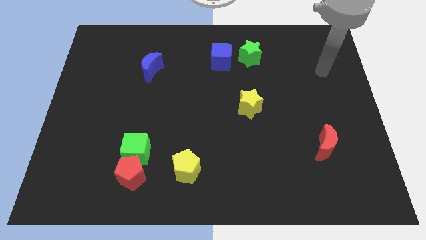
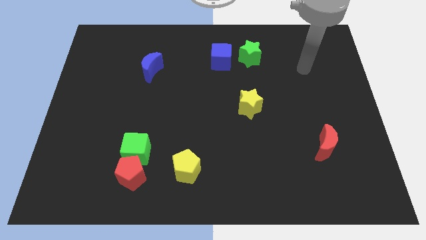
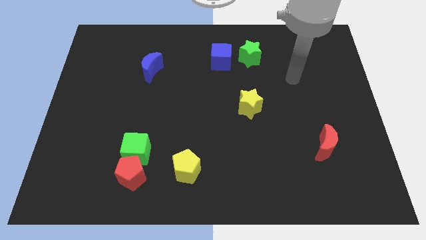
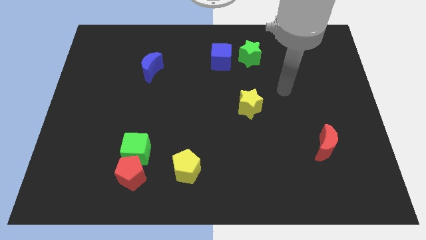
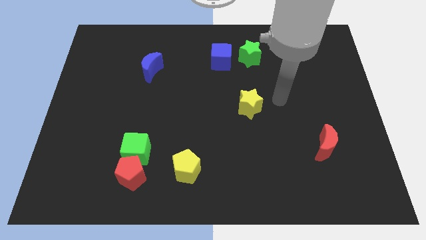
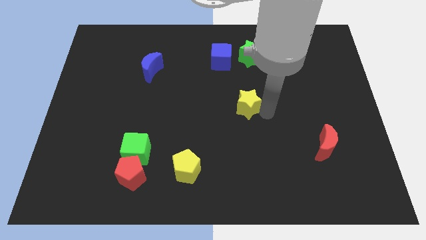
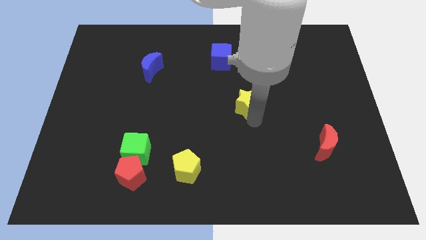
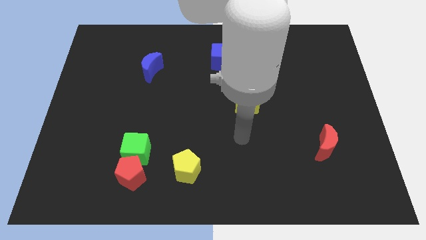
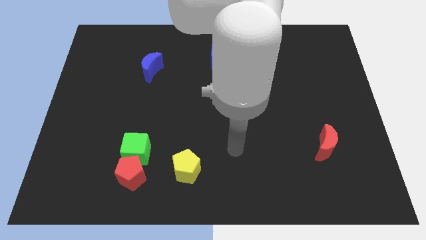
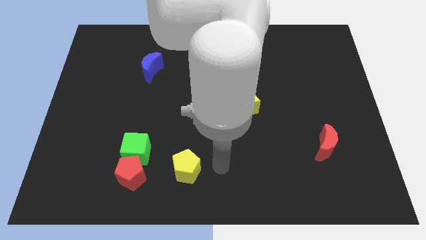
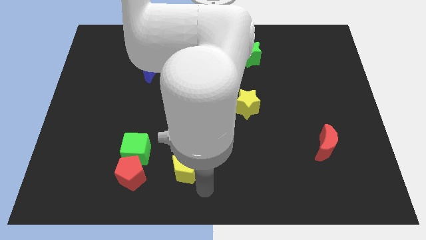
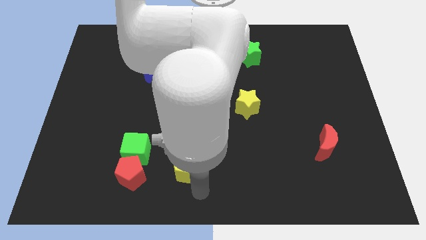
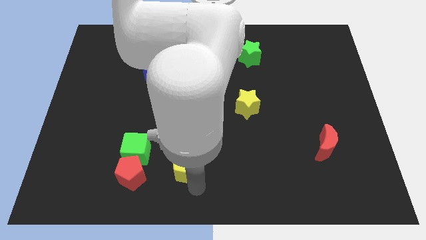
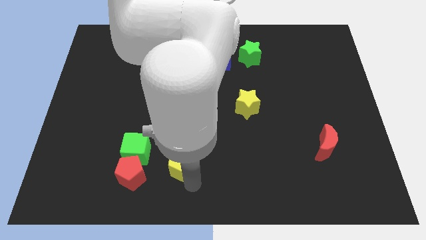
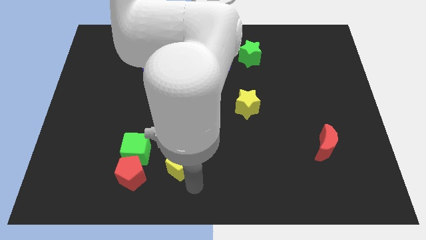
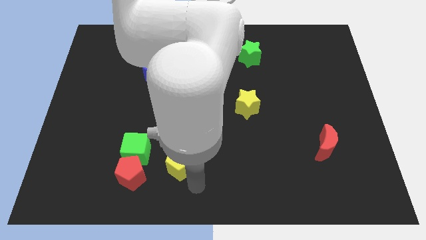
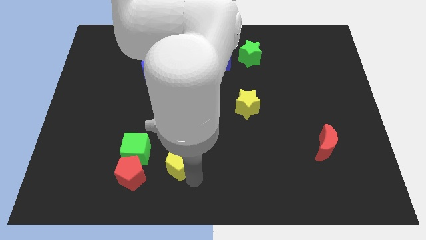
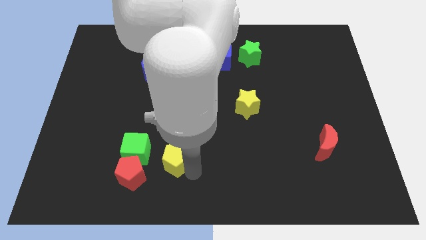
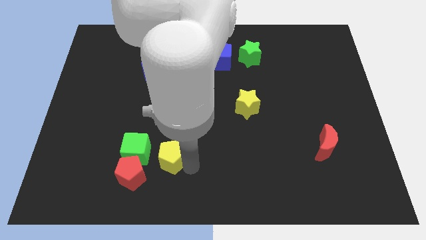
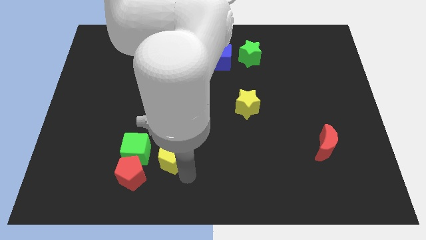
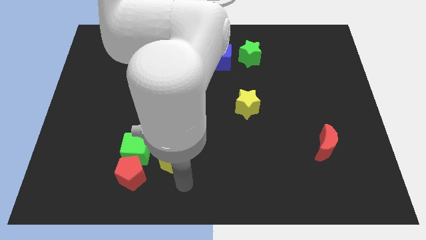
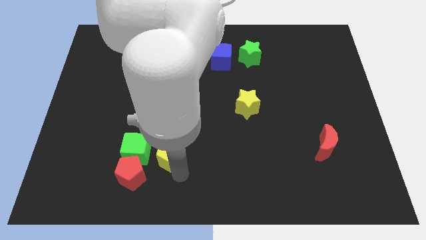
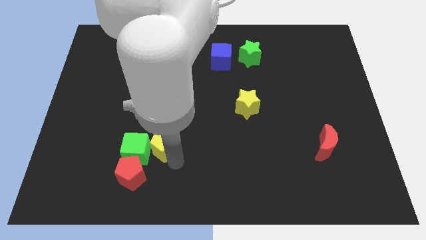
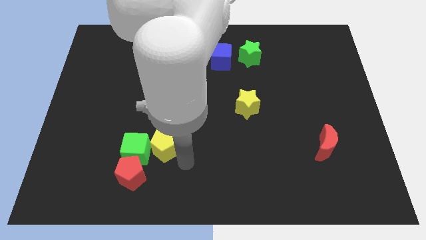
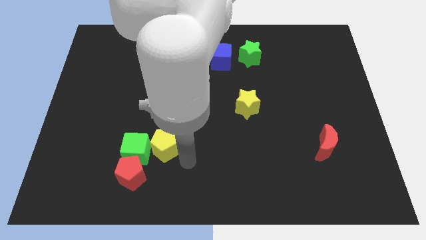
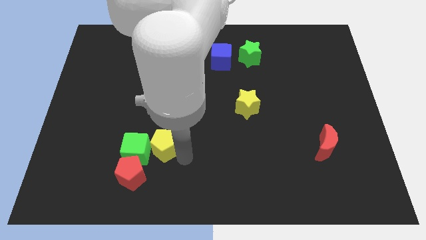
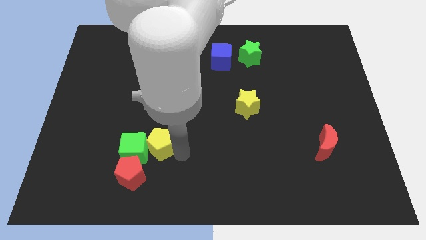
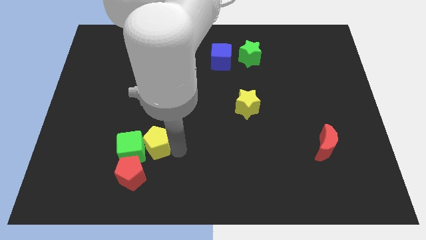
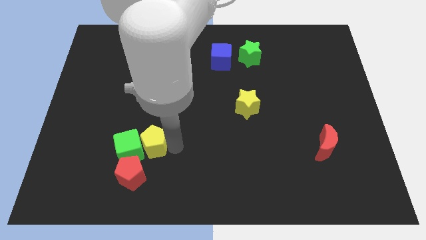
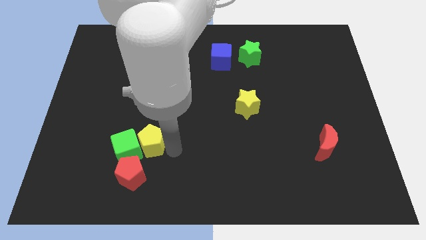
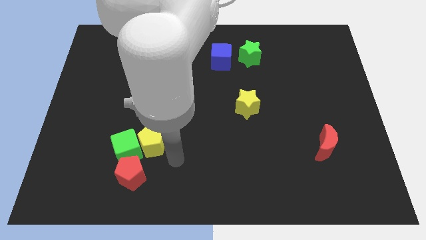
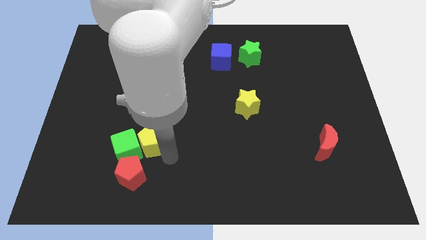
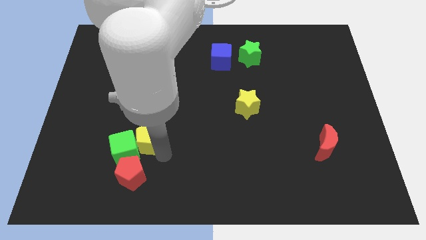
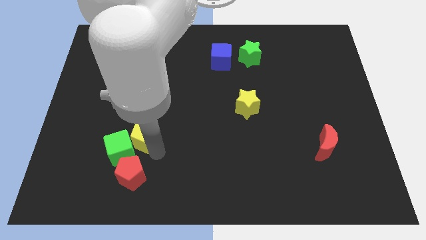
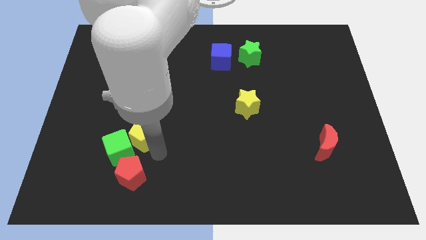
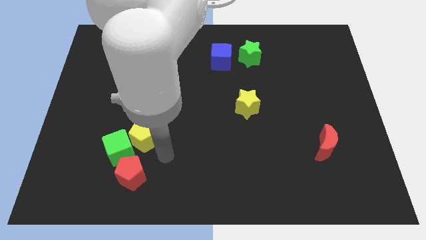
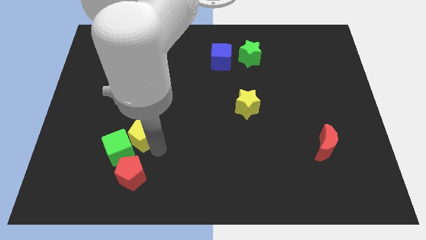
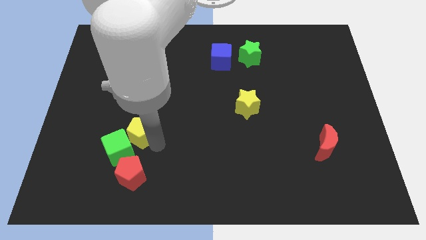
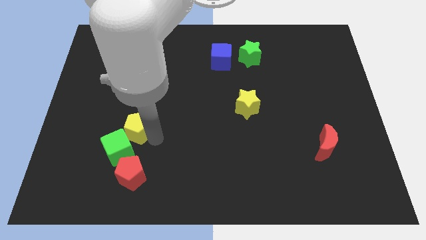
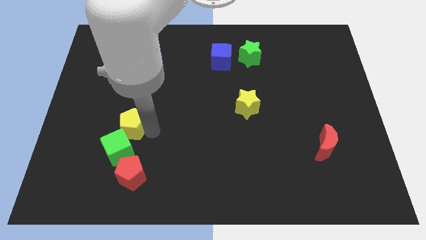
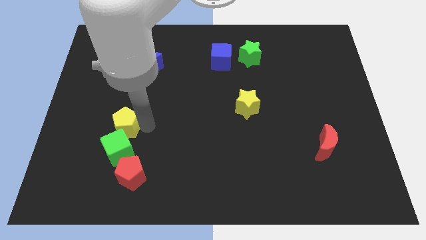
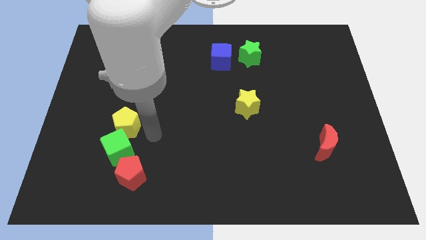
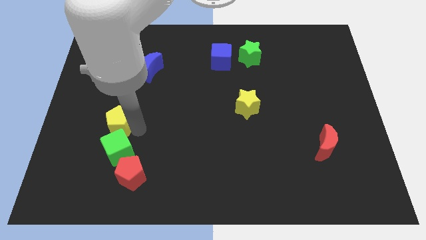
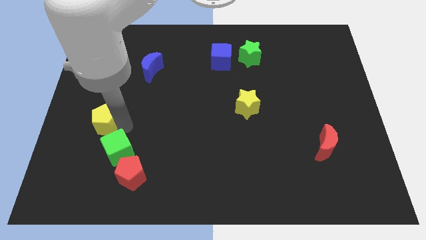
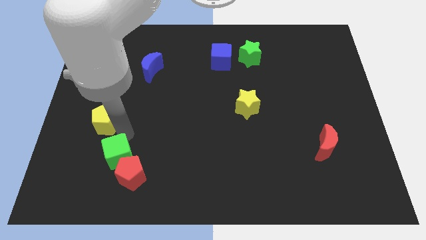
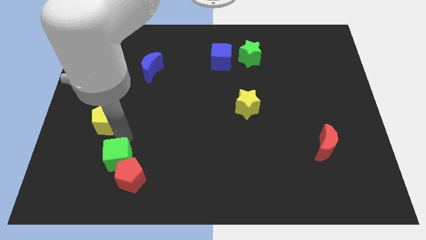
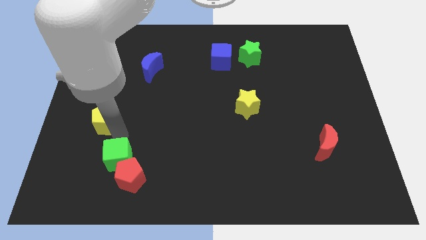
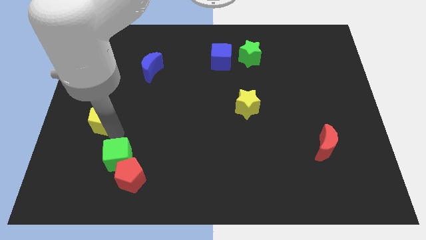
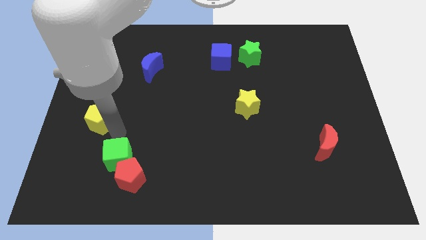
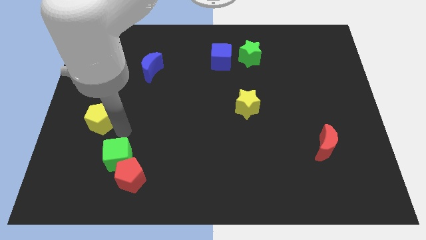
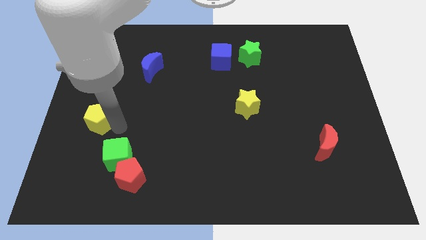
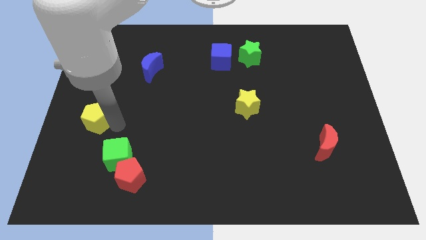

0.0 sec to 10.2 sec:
slide the yellow pentagon to the center left

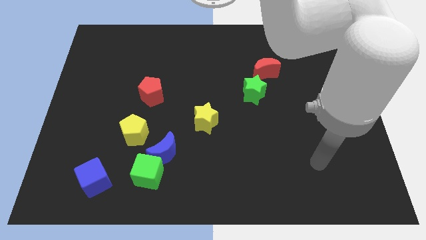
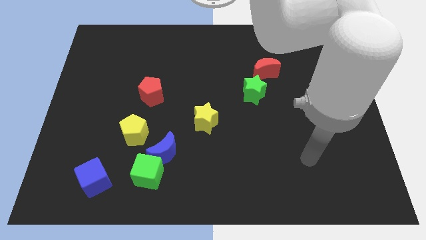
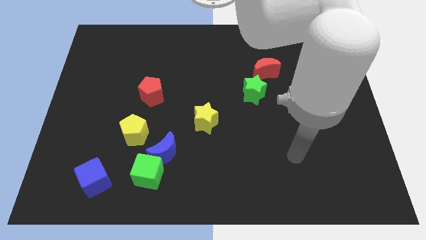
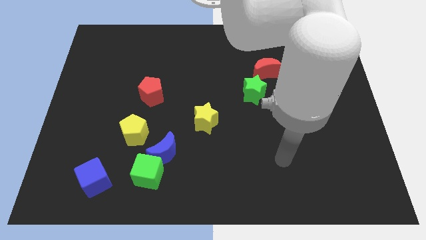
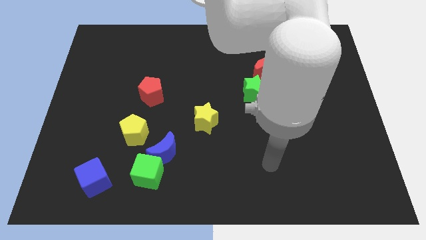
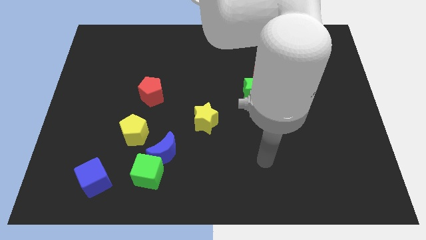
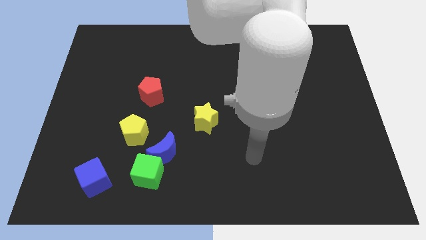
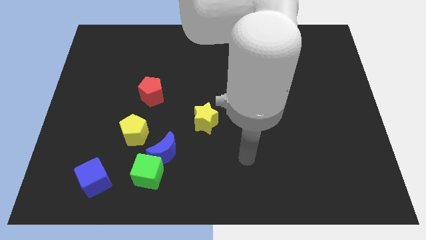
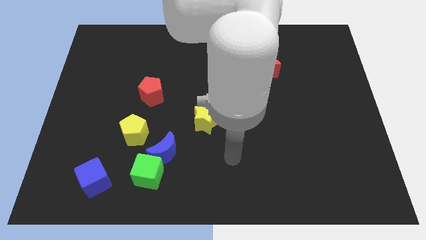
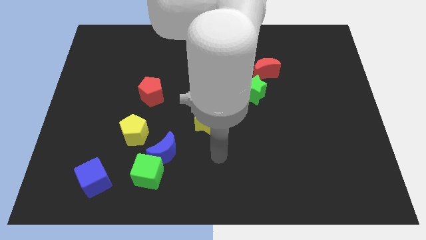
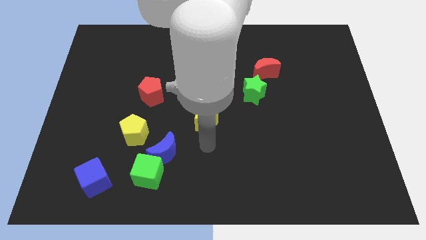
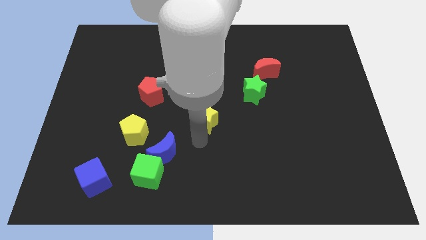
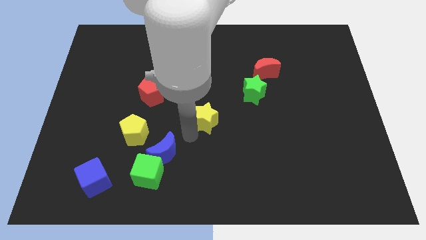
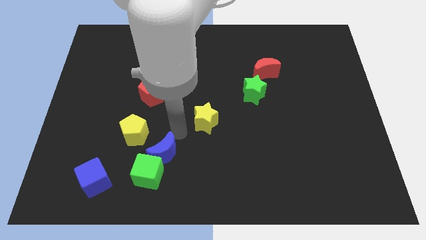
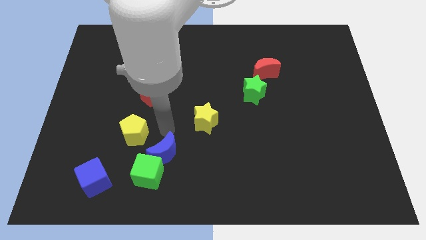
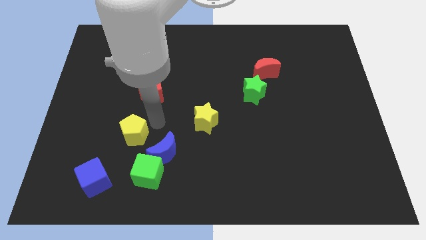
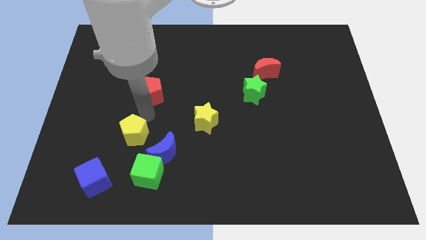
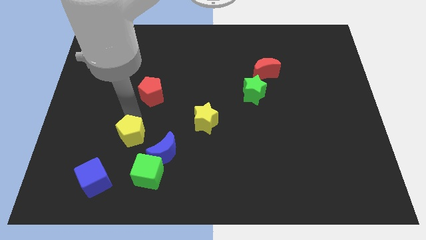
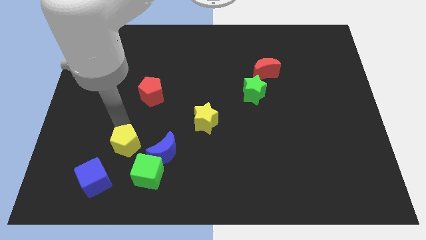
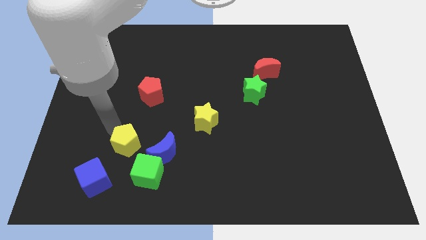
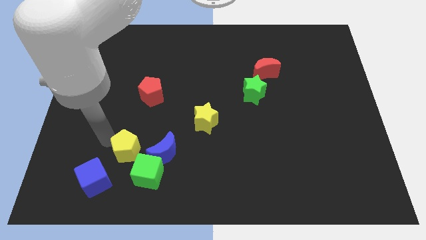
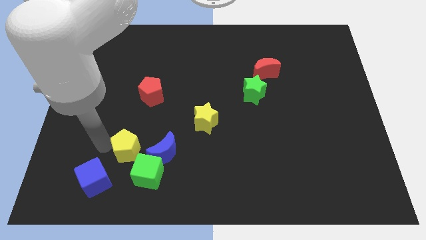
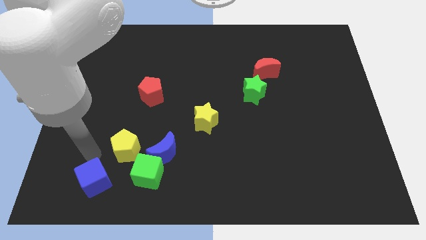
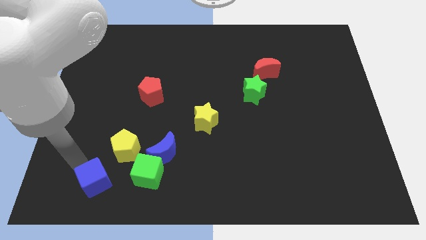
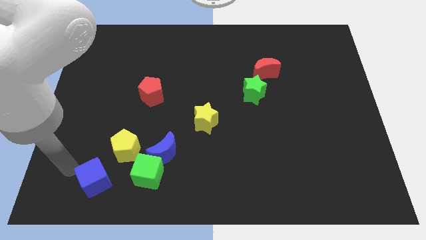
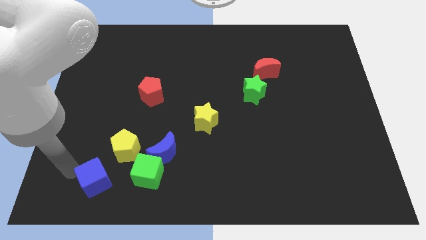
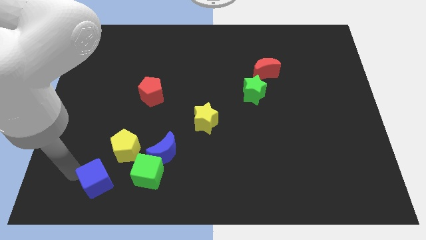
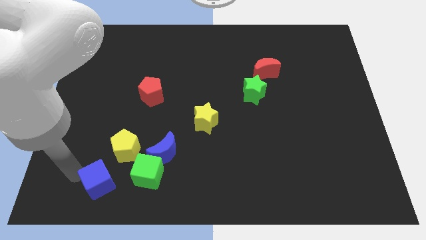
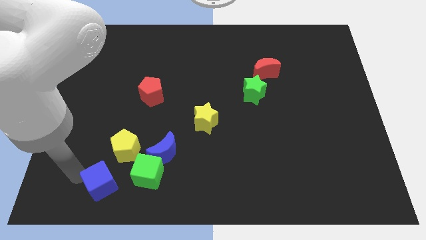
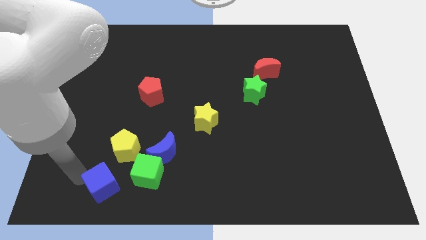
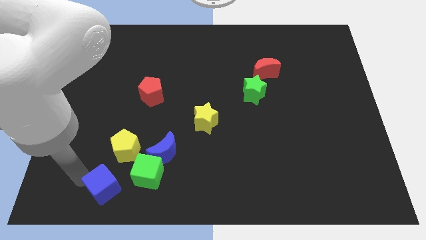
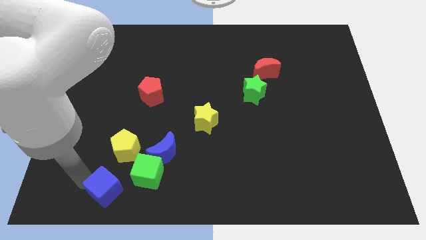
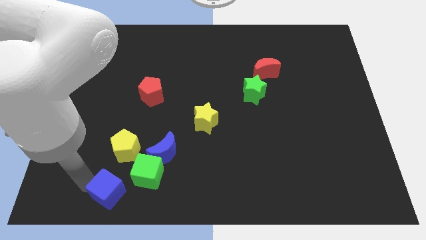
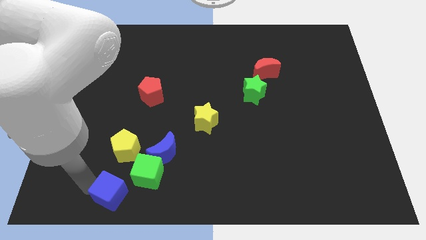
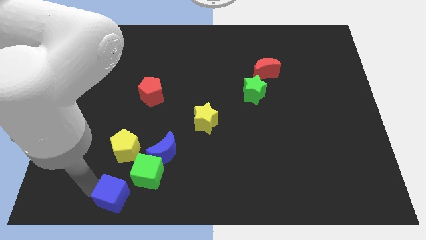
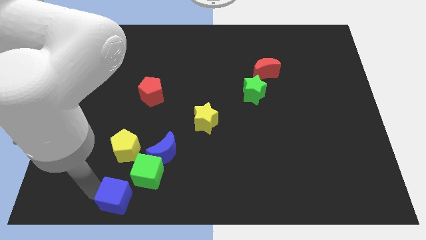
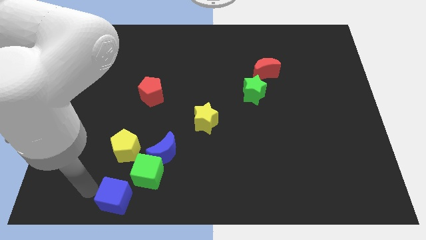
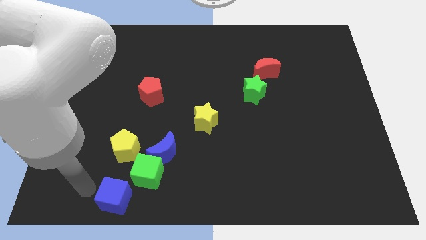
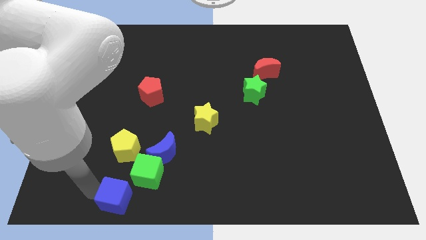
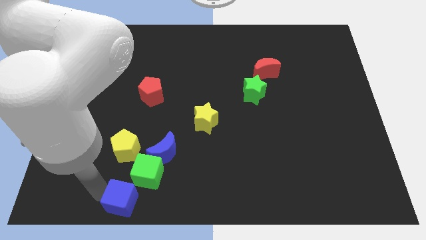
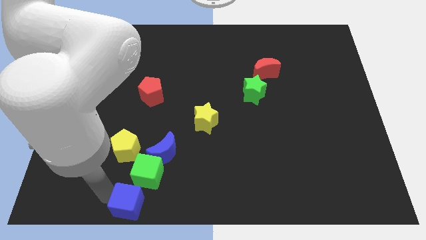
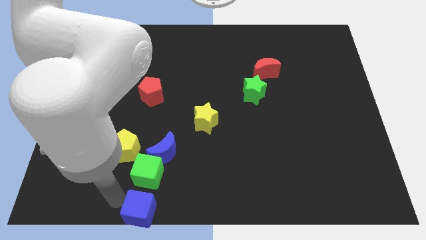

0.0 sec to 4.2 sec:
move the blue cube to the bottom side
